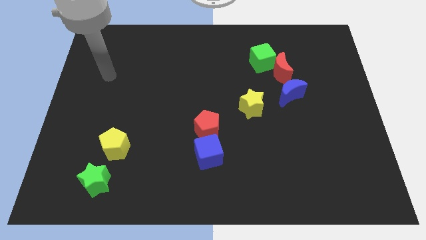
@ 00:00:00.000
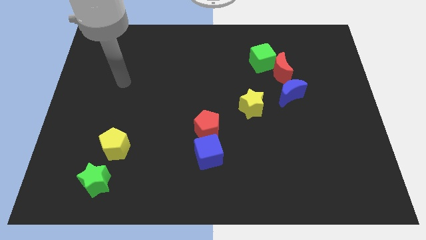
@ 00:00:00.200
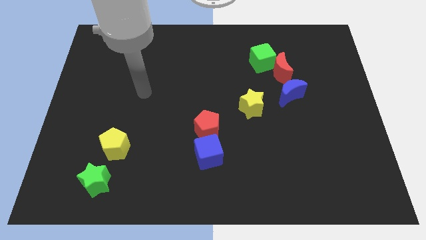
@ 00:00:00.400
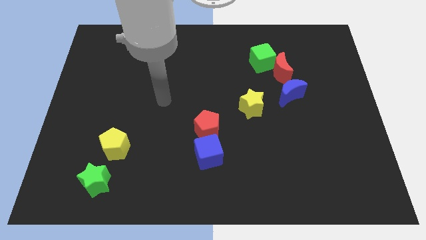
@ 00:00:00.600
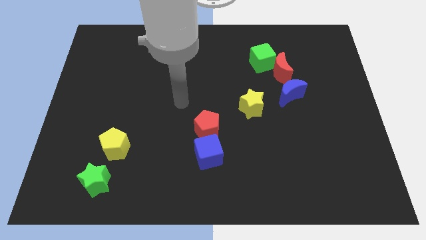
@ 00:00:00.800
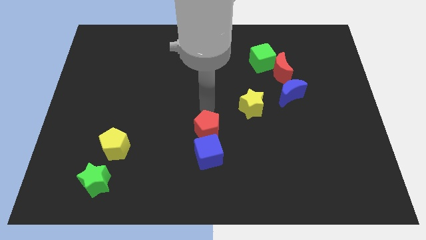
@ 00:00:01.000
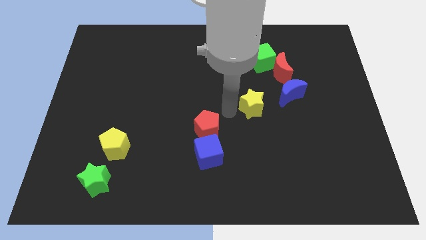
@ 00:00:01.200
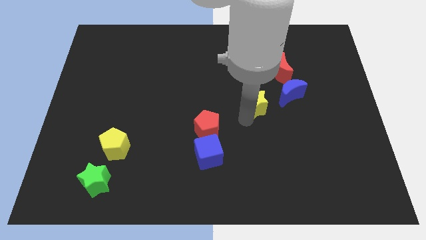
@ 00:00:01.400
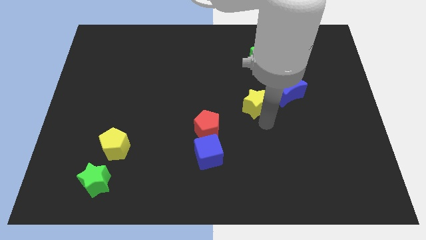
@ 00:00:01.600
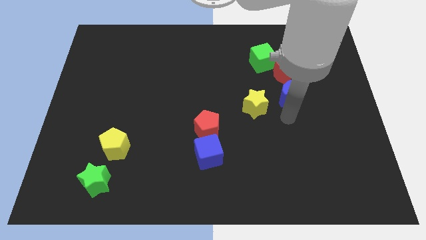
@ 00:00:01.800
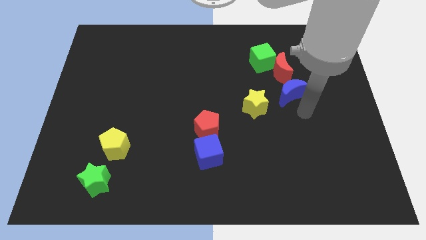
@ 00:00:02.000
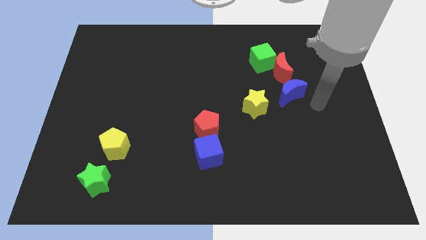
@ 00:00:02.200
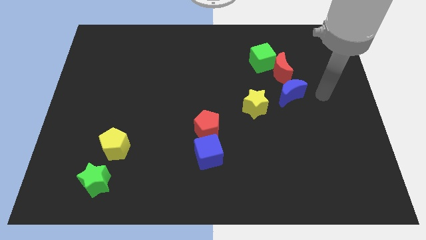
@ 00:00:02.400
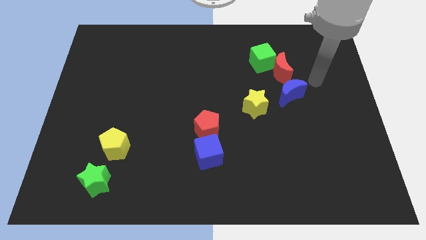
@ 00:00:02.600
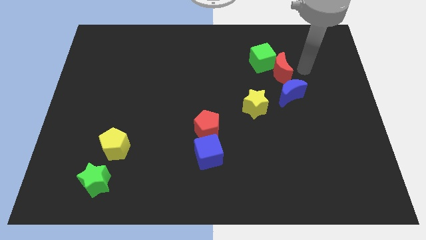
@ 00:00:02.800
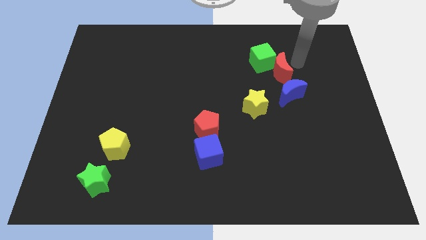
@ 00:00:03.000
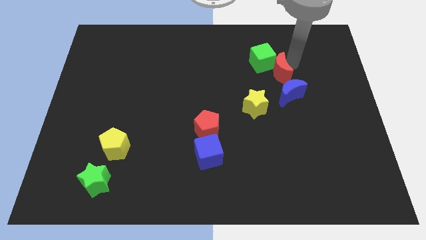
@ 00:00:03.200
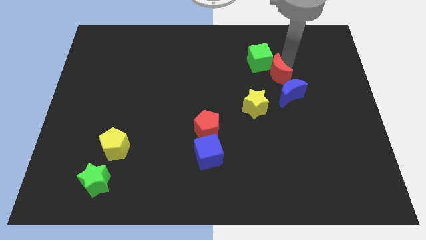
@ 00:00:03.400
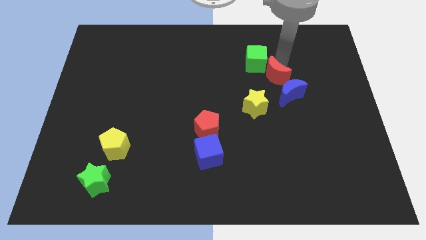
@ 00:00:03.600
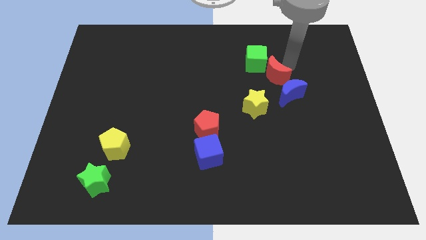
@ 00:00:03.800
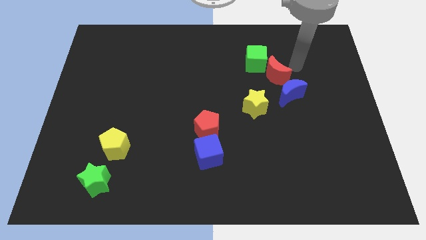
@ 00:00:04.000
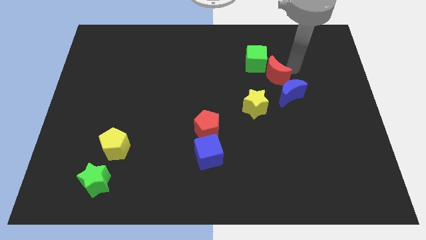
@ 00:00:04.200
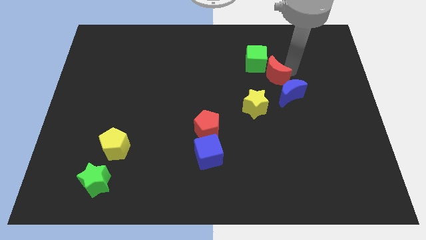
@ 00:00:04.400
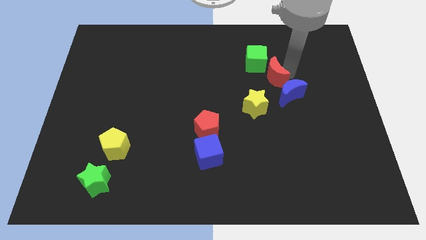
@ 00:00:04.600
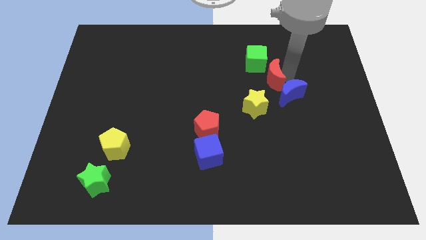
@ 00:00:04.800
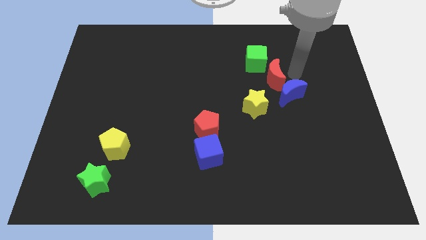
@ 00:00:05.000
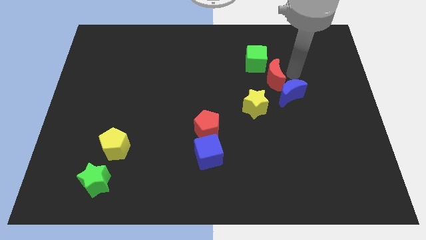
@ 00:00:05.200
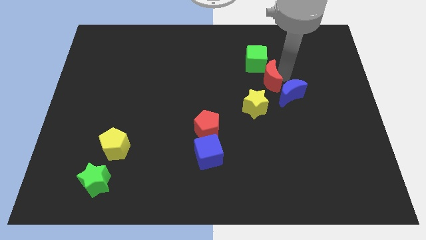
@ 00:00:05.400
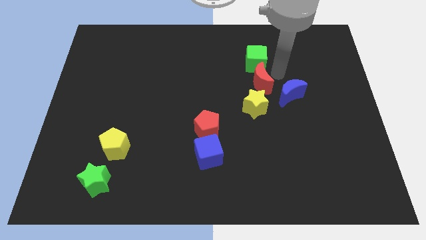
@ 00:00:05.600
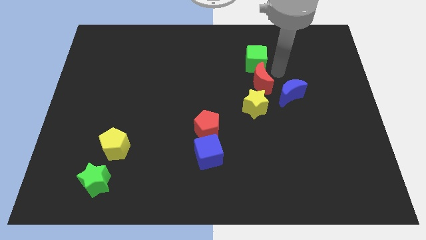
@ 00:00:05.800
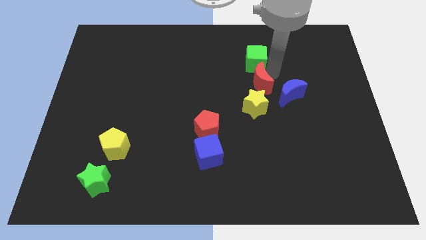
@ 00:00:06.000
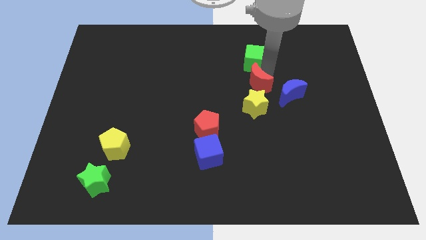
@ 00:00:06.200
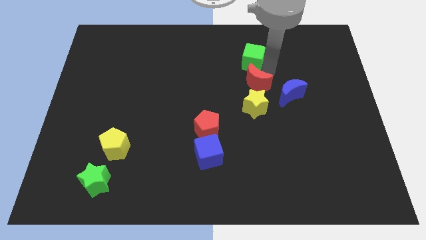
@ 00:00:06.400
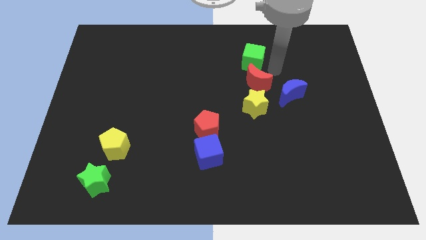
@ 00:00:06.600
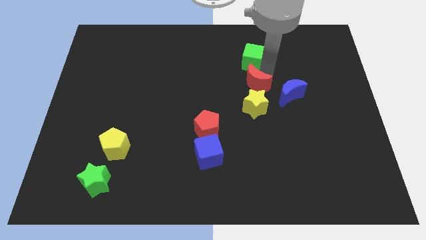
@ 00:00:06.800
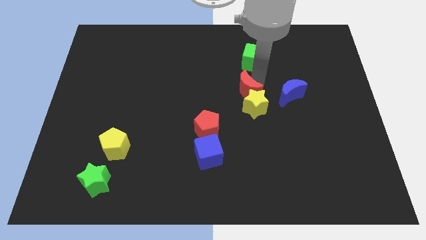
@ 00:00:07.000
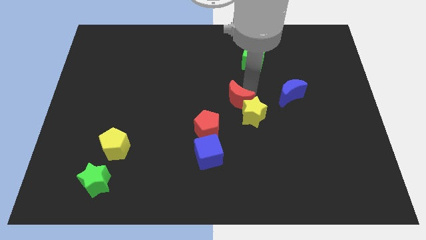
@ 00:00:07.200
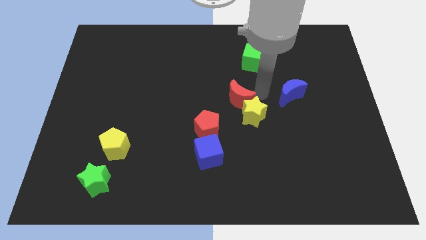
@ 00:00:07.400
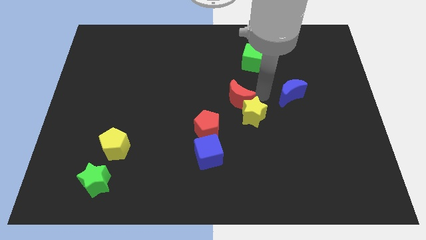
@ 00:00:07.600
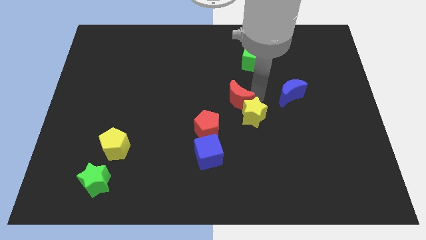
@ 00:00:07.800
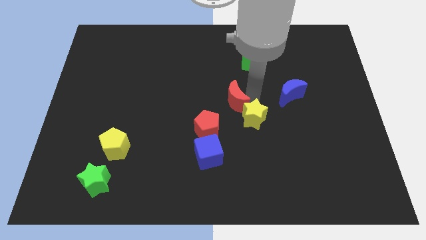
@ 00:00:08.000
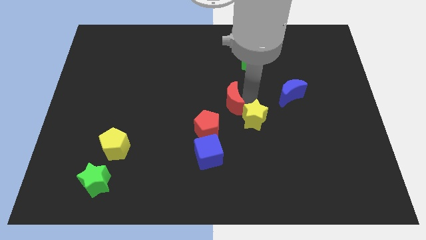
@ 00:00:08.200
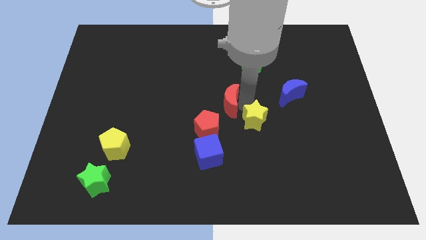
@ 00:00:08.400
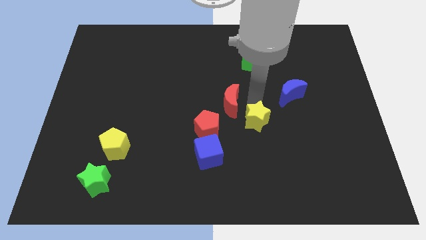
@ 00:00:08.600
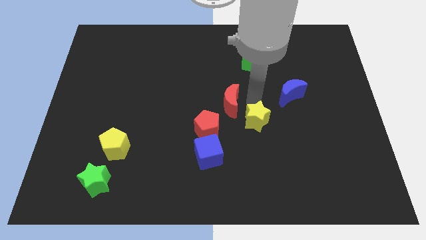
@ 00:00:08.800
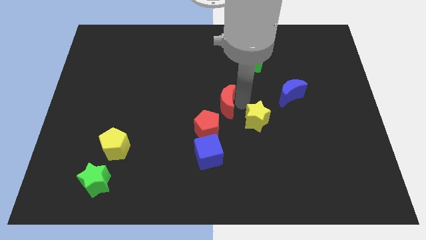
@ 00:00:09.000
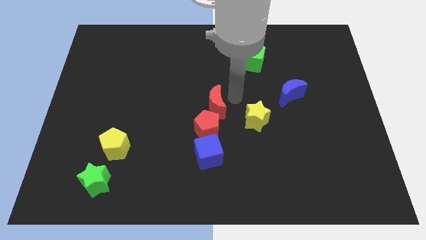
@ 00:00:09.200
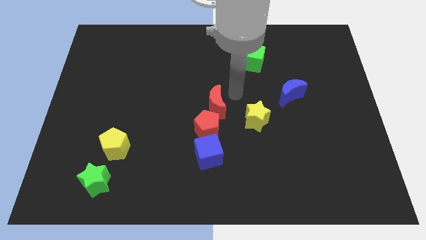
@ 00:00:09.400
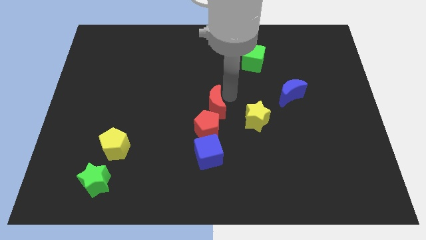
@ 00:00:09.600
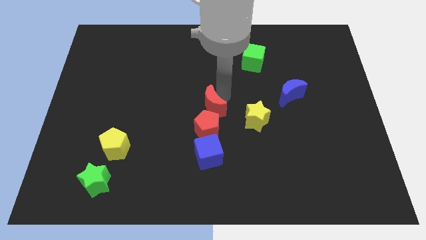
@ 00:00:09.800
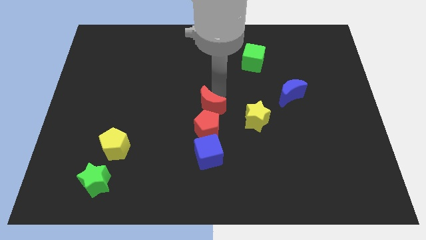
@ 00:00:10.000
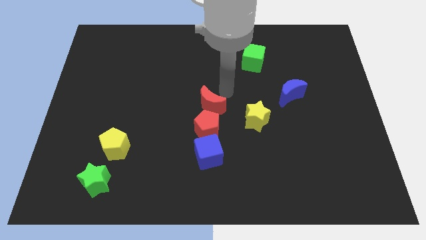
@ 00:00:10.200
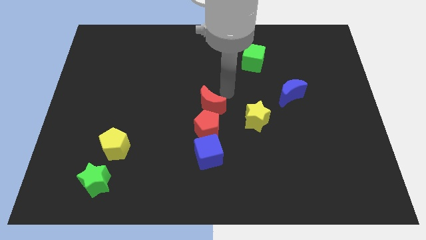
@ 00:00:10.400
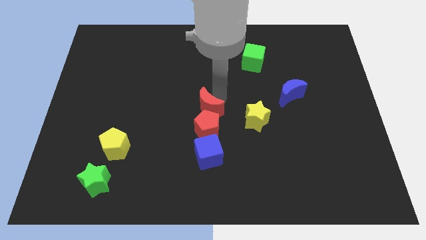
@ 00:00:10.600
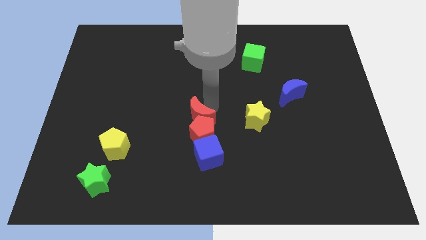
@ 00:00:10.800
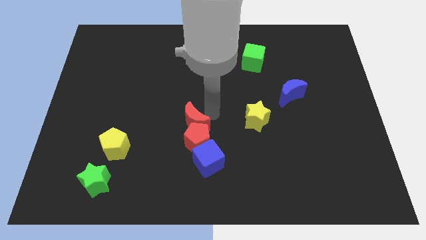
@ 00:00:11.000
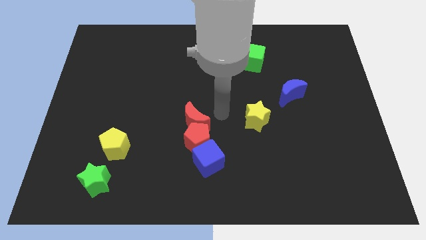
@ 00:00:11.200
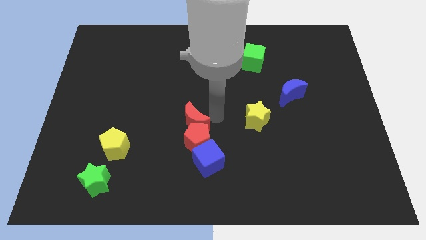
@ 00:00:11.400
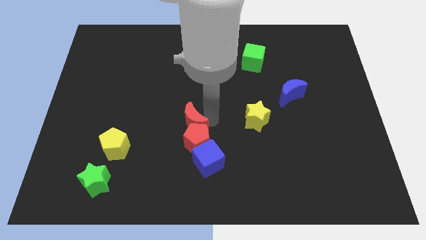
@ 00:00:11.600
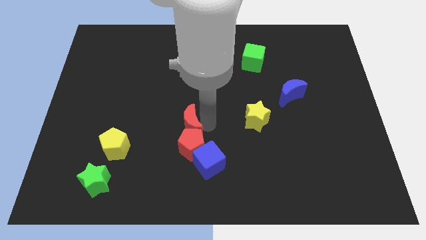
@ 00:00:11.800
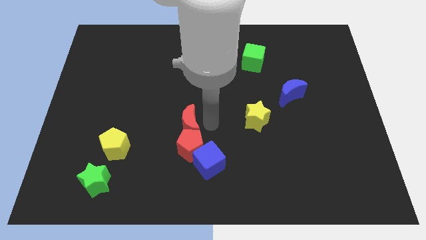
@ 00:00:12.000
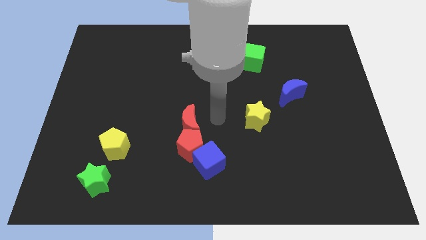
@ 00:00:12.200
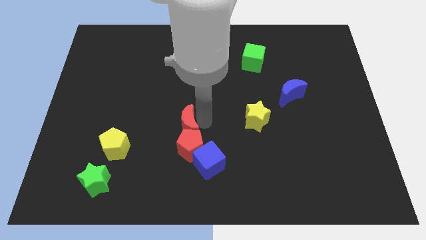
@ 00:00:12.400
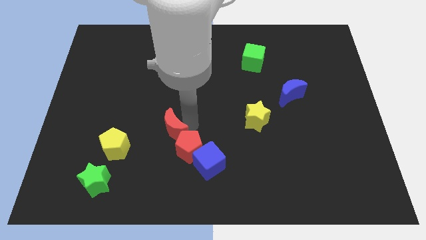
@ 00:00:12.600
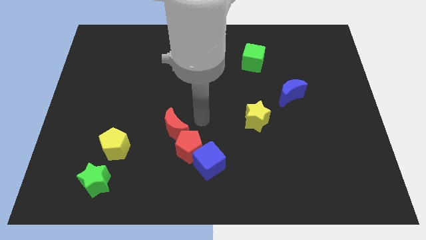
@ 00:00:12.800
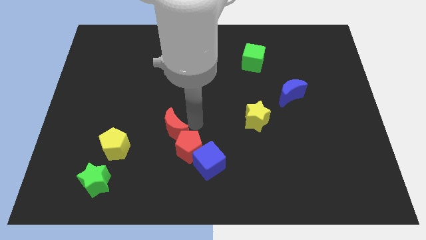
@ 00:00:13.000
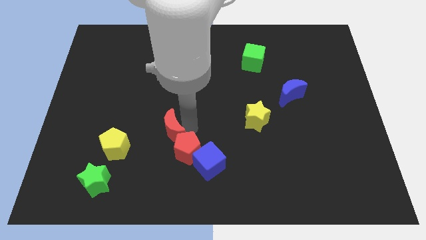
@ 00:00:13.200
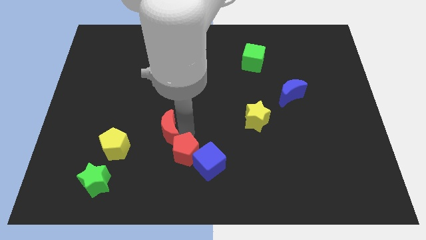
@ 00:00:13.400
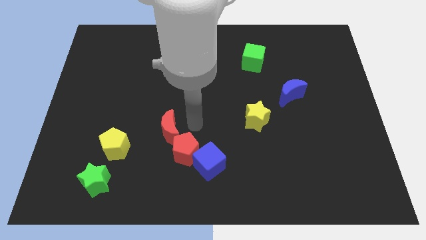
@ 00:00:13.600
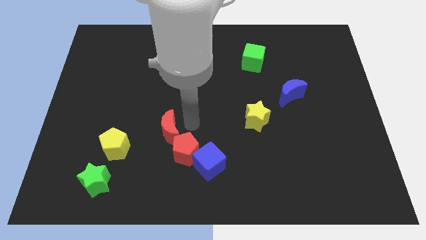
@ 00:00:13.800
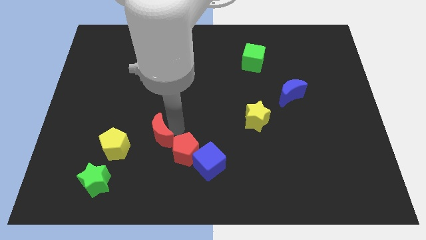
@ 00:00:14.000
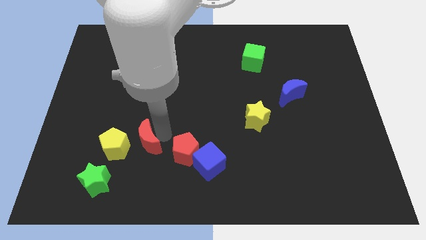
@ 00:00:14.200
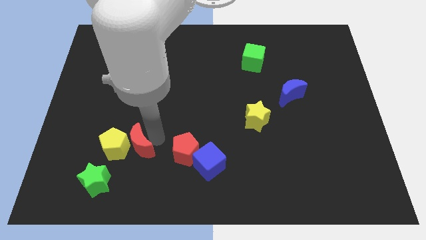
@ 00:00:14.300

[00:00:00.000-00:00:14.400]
slide the red moon to the yellow pentagon
